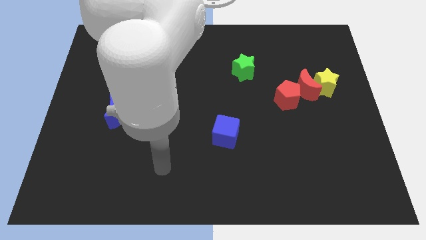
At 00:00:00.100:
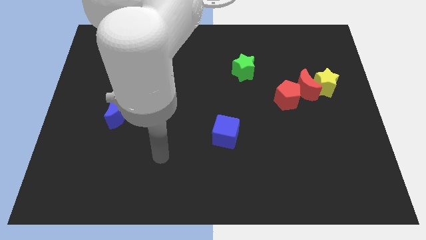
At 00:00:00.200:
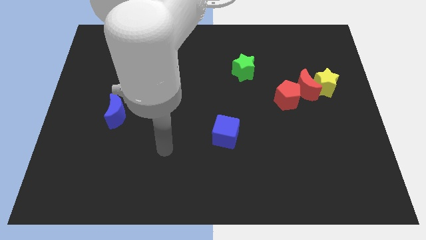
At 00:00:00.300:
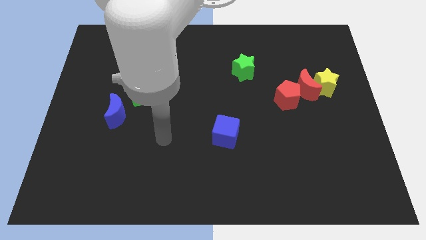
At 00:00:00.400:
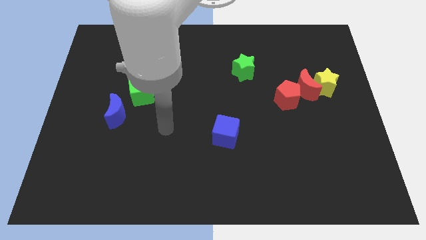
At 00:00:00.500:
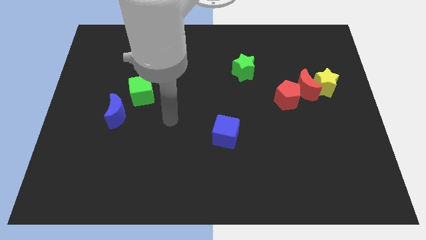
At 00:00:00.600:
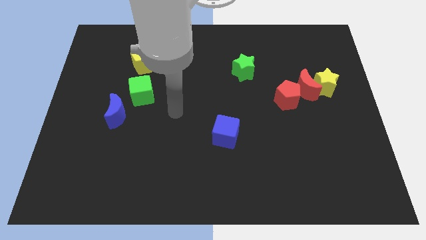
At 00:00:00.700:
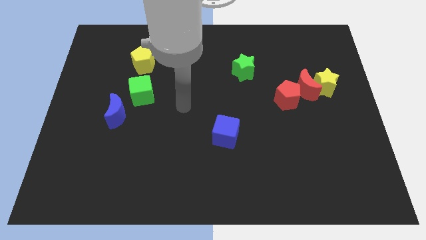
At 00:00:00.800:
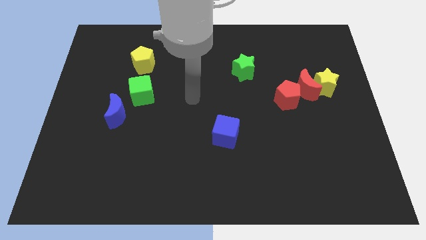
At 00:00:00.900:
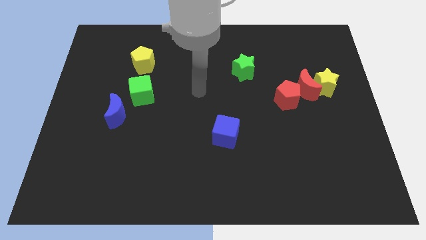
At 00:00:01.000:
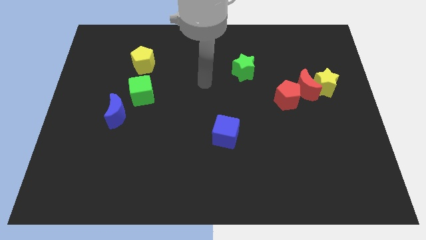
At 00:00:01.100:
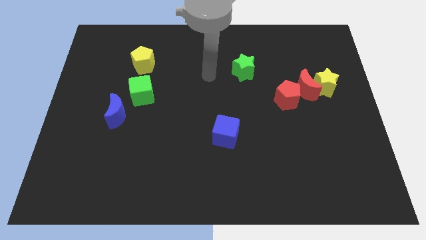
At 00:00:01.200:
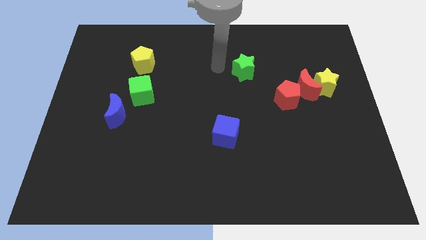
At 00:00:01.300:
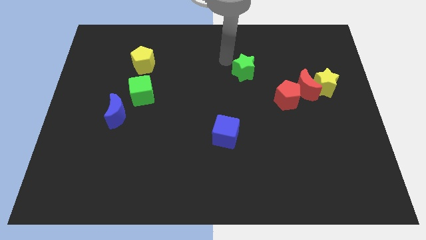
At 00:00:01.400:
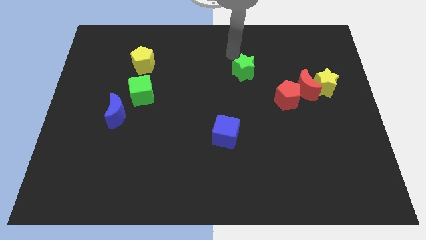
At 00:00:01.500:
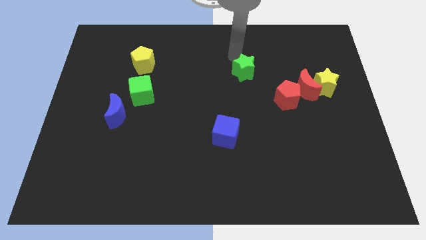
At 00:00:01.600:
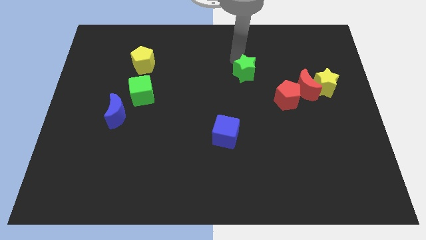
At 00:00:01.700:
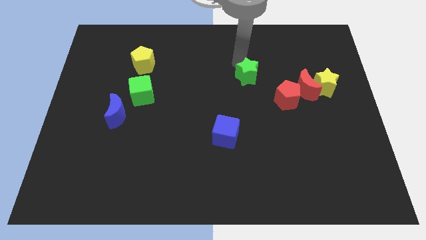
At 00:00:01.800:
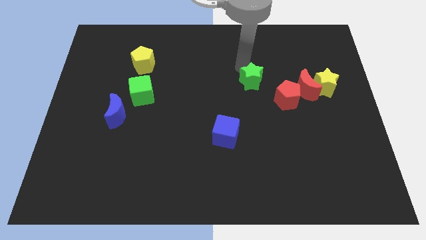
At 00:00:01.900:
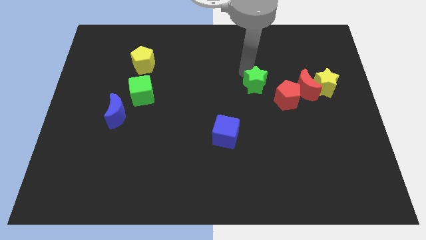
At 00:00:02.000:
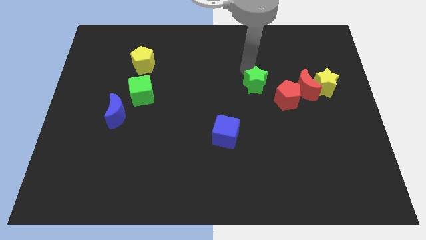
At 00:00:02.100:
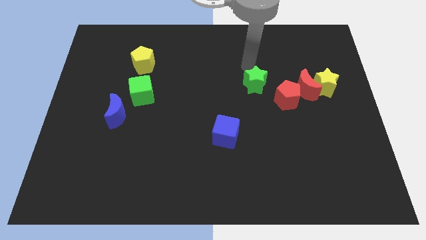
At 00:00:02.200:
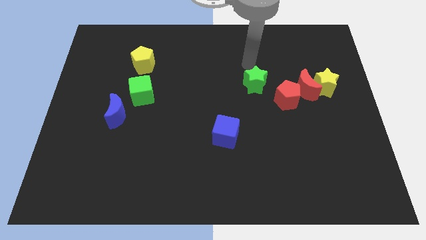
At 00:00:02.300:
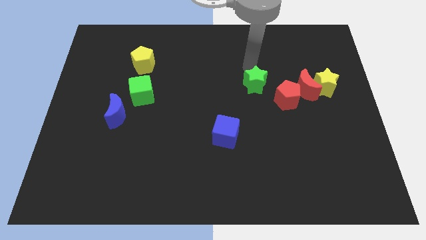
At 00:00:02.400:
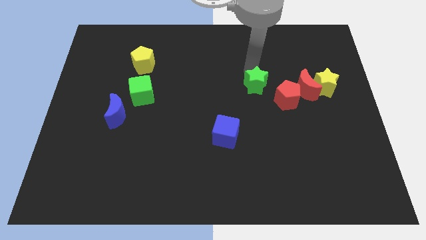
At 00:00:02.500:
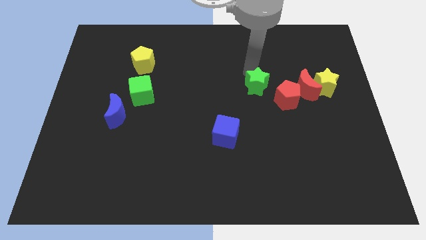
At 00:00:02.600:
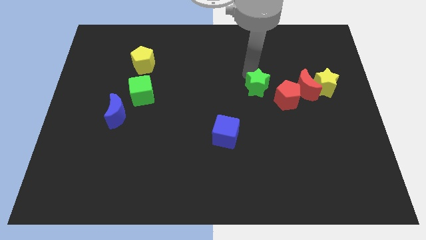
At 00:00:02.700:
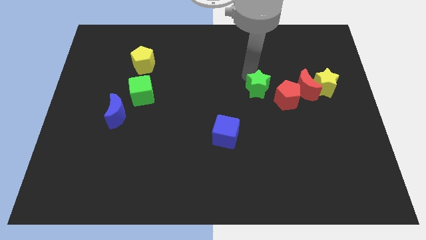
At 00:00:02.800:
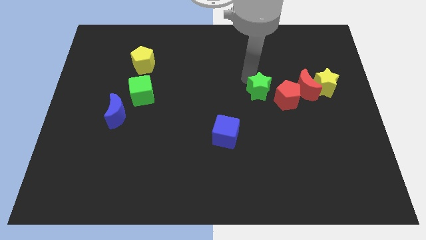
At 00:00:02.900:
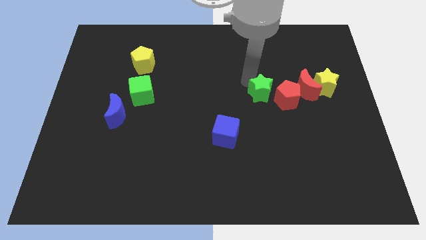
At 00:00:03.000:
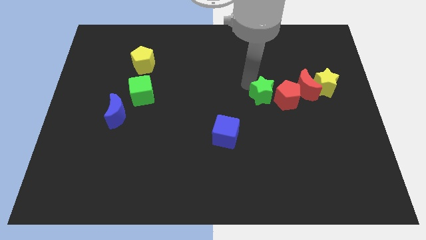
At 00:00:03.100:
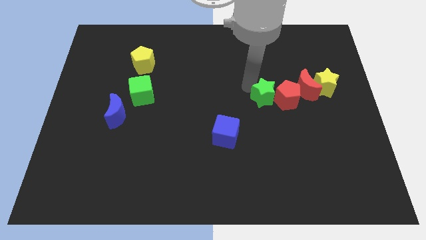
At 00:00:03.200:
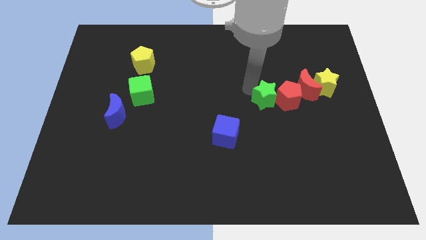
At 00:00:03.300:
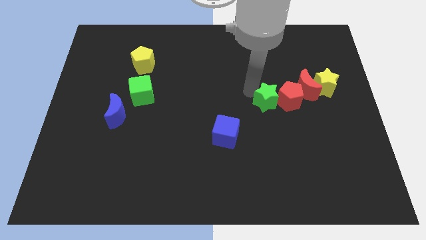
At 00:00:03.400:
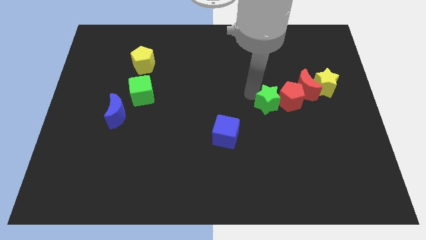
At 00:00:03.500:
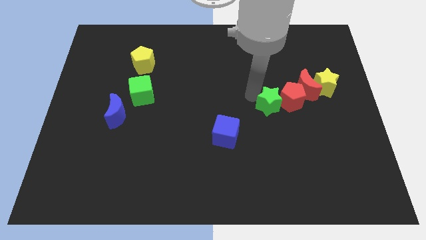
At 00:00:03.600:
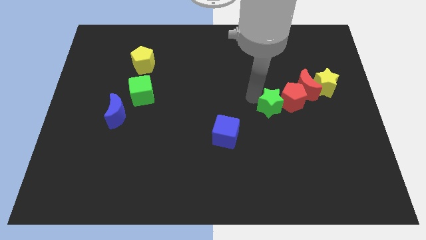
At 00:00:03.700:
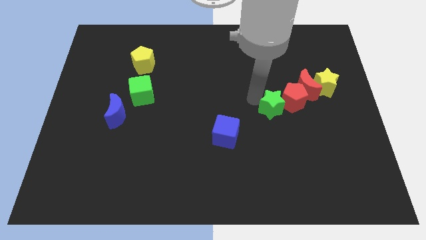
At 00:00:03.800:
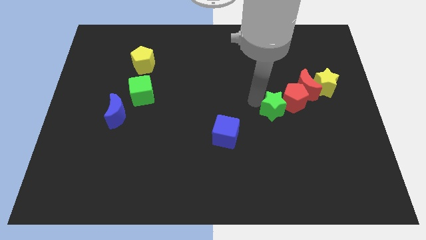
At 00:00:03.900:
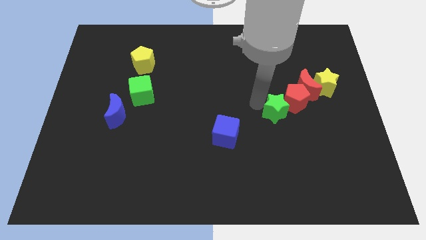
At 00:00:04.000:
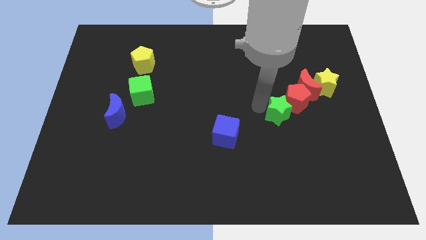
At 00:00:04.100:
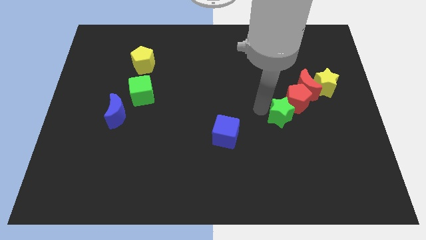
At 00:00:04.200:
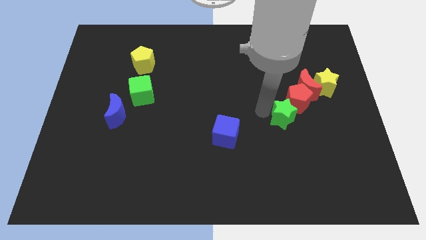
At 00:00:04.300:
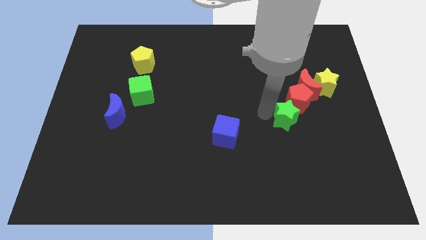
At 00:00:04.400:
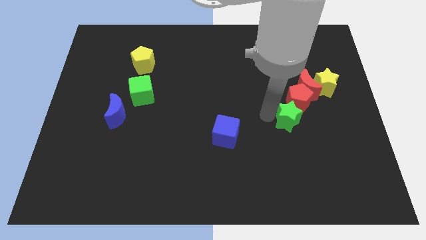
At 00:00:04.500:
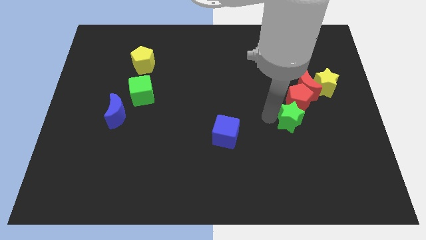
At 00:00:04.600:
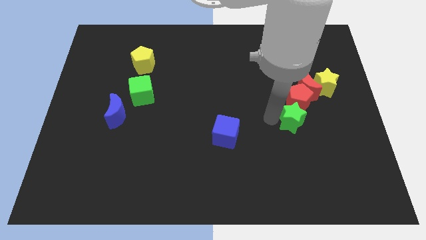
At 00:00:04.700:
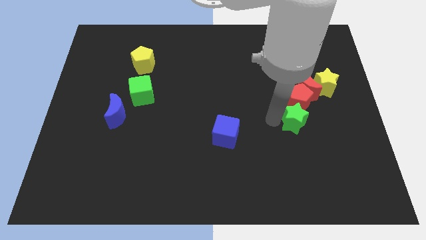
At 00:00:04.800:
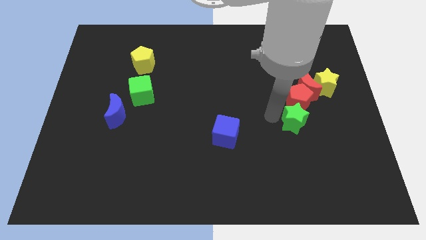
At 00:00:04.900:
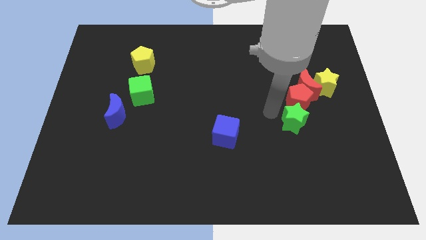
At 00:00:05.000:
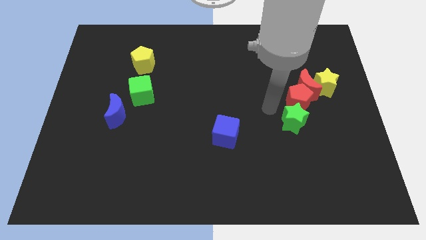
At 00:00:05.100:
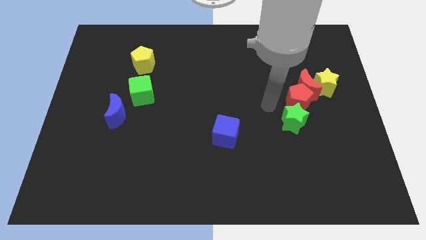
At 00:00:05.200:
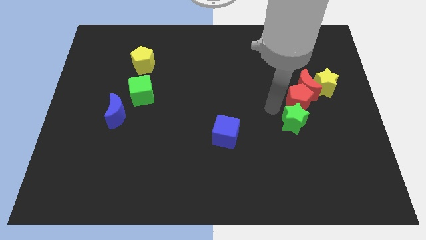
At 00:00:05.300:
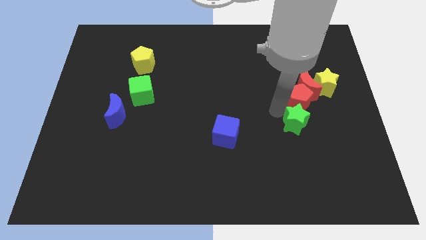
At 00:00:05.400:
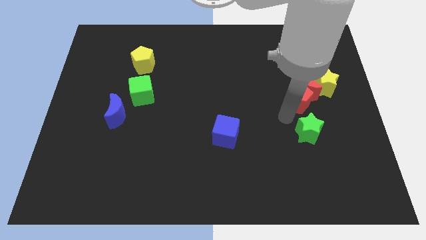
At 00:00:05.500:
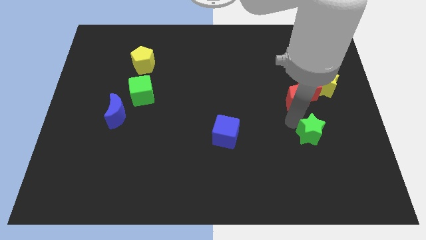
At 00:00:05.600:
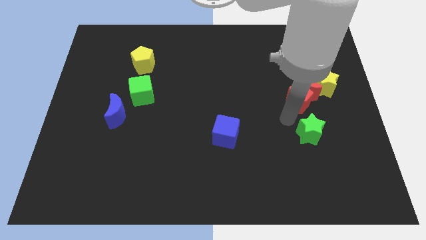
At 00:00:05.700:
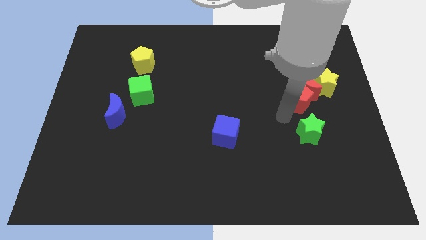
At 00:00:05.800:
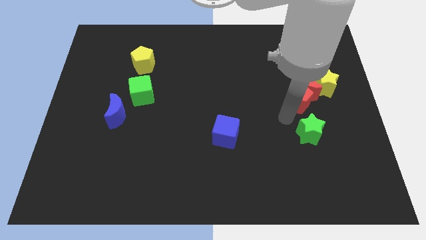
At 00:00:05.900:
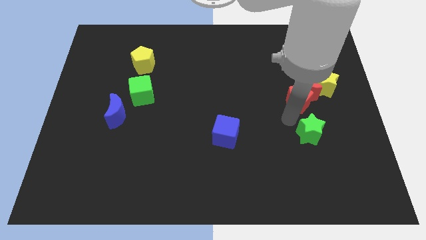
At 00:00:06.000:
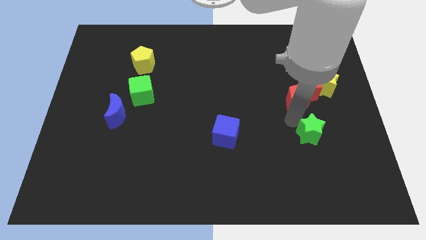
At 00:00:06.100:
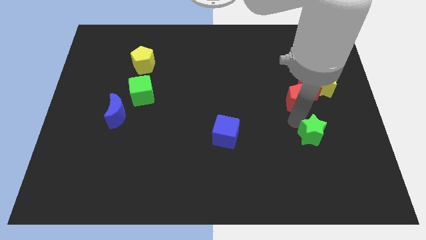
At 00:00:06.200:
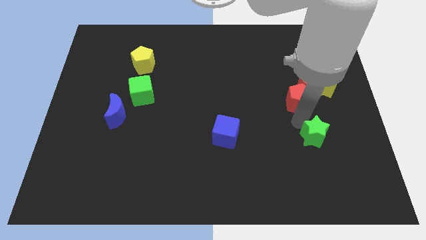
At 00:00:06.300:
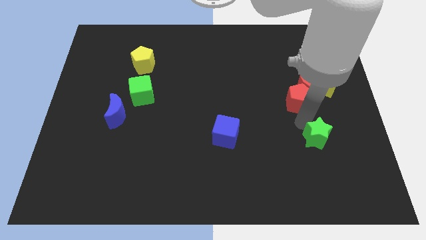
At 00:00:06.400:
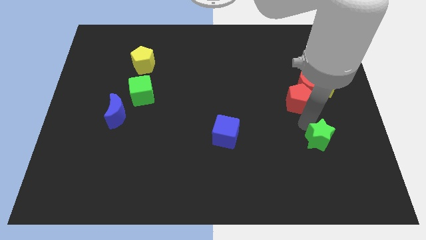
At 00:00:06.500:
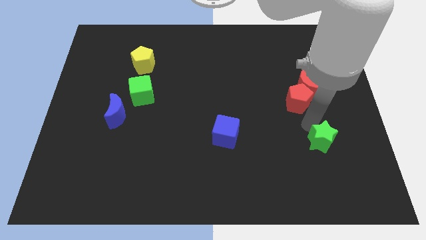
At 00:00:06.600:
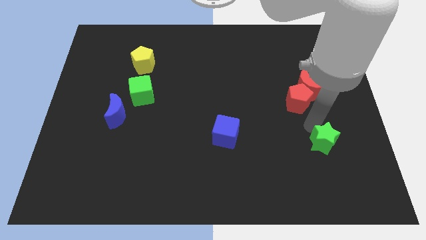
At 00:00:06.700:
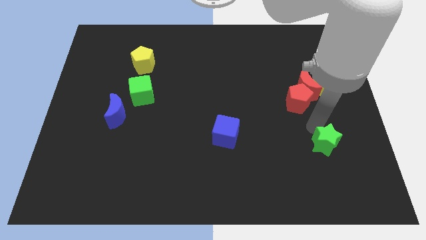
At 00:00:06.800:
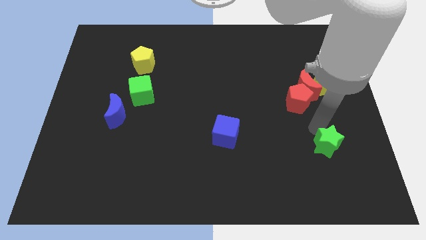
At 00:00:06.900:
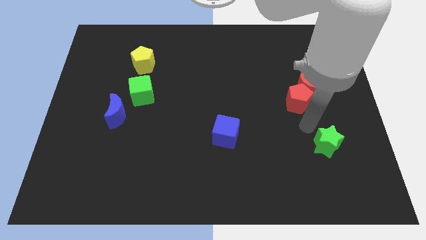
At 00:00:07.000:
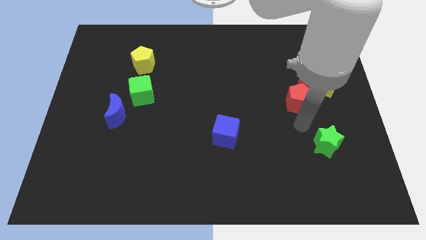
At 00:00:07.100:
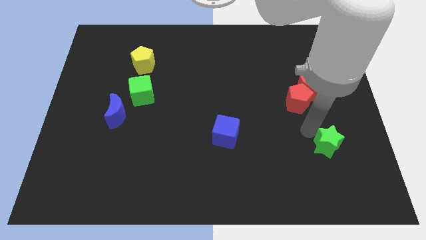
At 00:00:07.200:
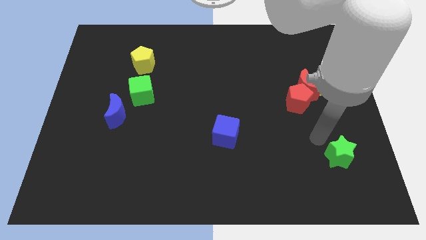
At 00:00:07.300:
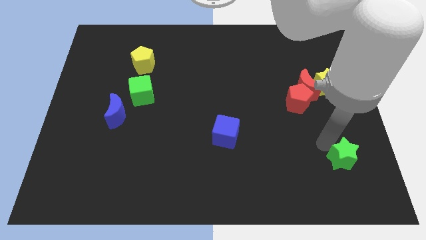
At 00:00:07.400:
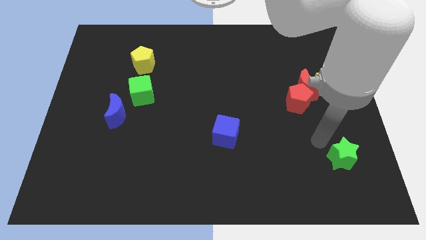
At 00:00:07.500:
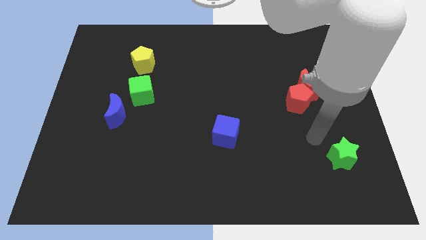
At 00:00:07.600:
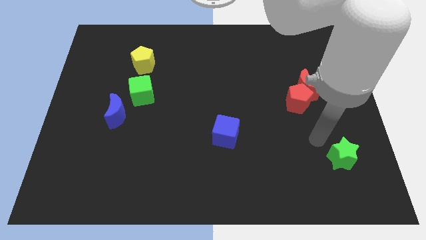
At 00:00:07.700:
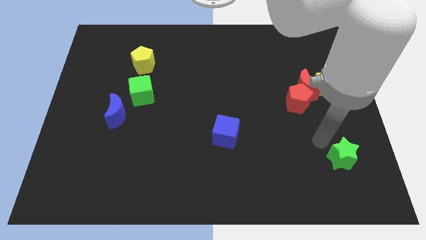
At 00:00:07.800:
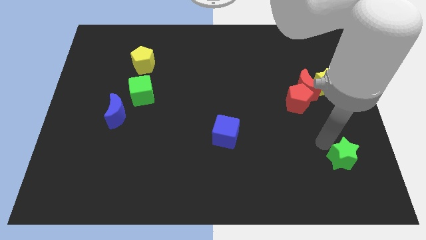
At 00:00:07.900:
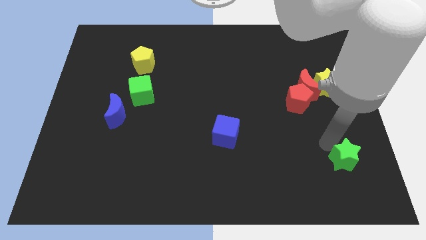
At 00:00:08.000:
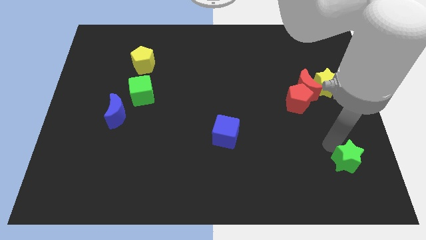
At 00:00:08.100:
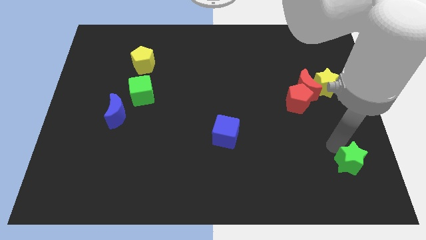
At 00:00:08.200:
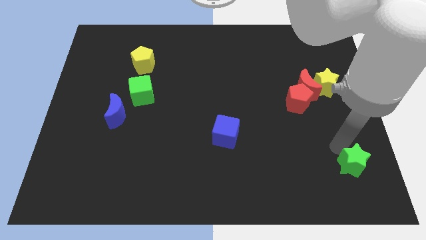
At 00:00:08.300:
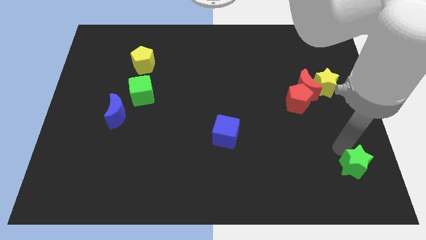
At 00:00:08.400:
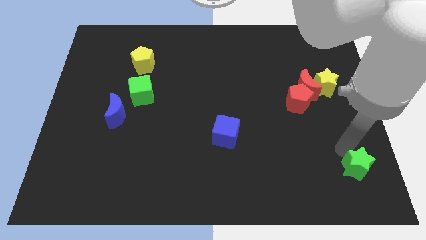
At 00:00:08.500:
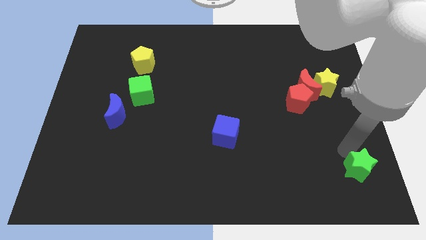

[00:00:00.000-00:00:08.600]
put the green star to the bottom right of the board
